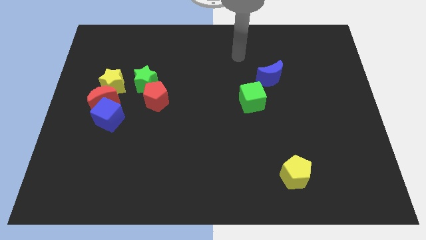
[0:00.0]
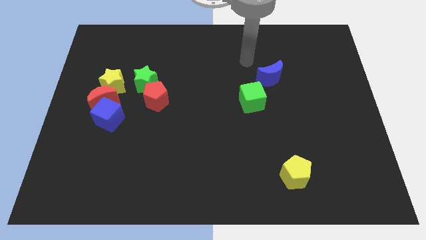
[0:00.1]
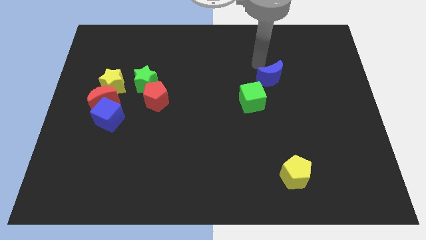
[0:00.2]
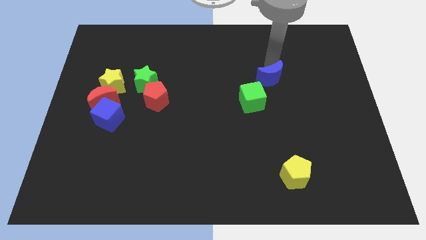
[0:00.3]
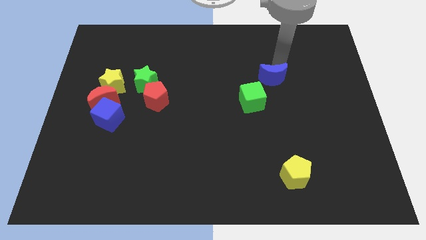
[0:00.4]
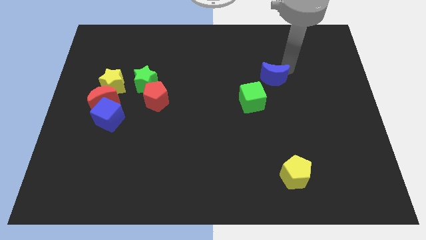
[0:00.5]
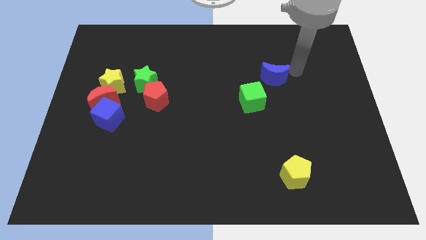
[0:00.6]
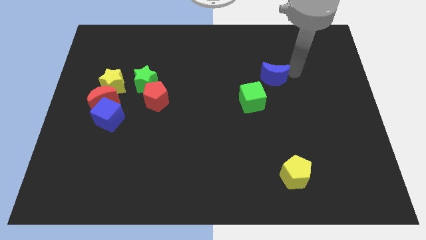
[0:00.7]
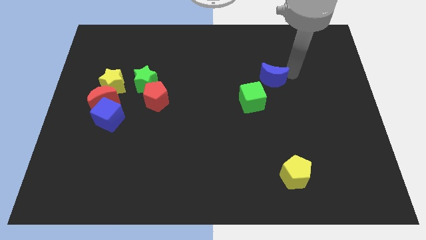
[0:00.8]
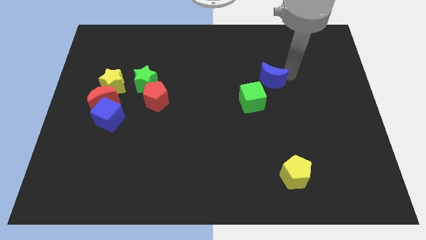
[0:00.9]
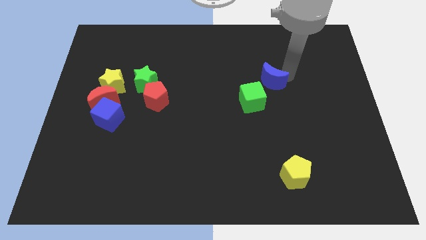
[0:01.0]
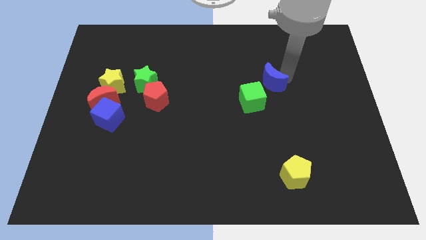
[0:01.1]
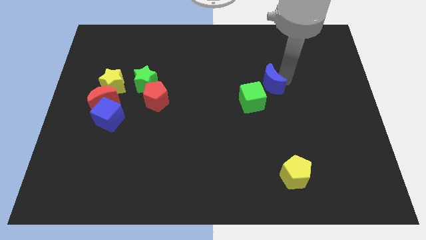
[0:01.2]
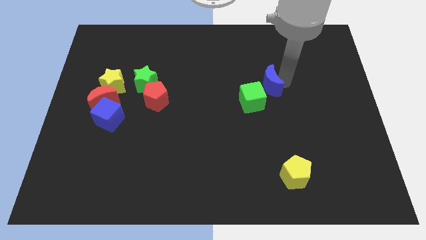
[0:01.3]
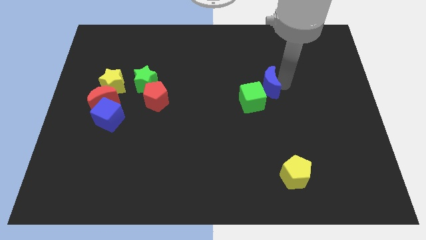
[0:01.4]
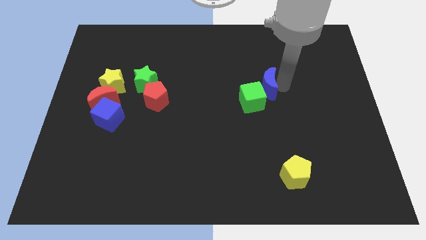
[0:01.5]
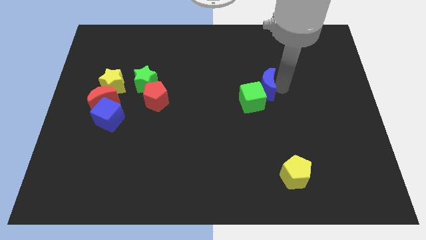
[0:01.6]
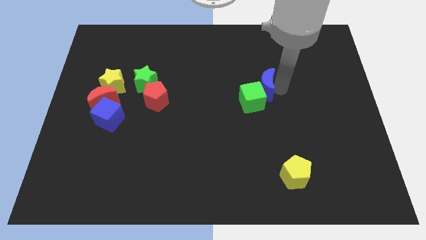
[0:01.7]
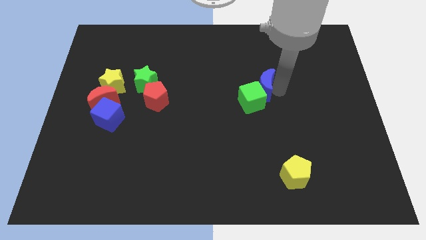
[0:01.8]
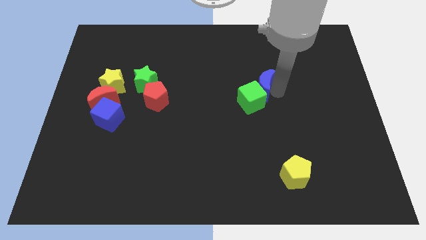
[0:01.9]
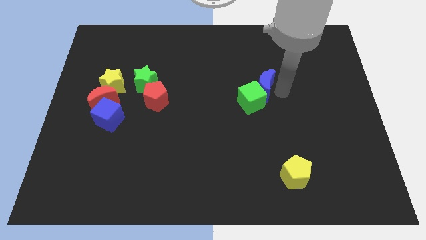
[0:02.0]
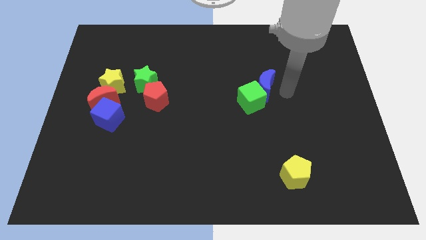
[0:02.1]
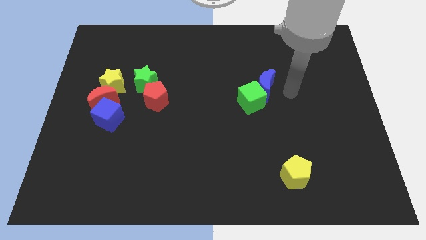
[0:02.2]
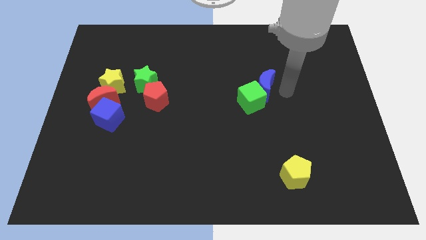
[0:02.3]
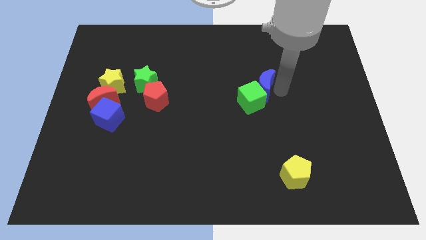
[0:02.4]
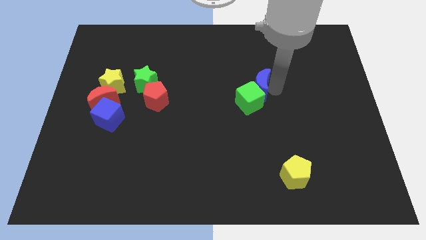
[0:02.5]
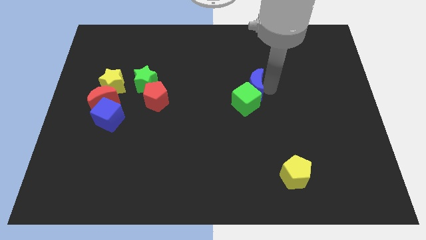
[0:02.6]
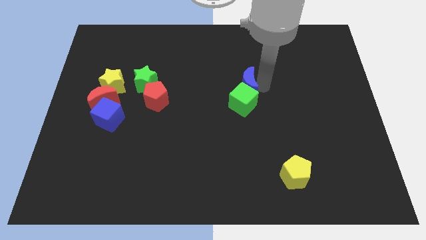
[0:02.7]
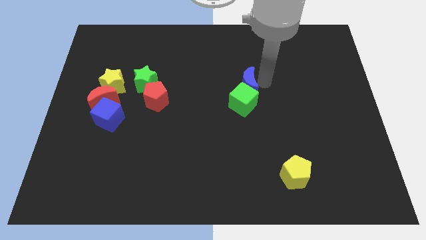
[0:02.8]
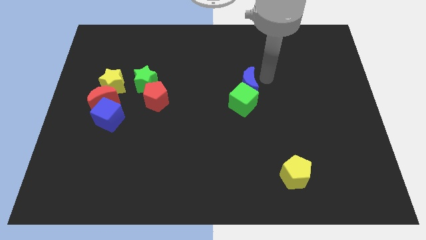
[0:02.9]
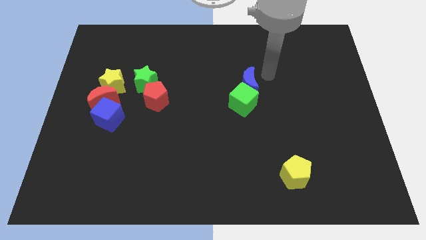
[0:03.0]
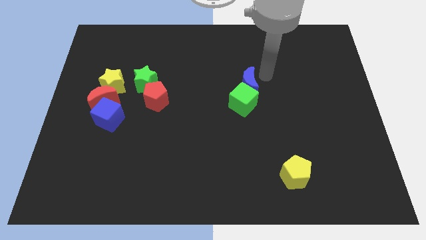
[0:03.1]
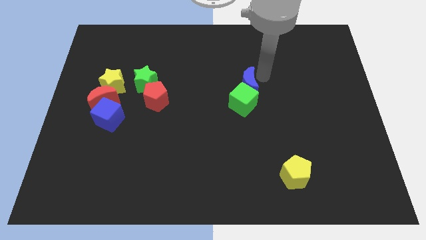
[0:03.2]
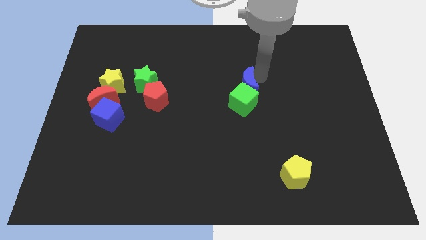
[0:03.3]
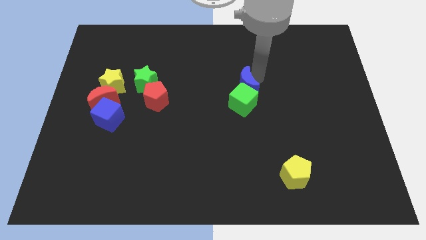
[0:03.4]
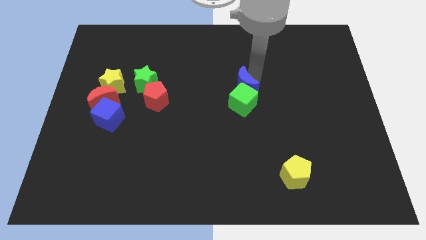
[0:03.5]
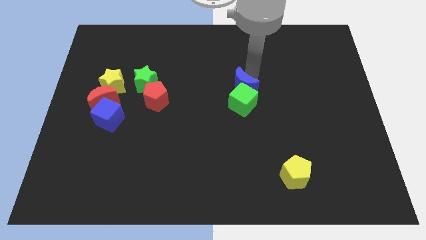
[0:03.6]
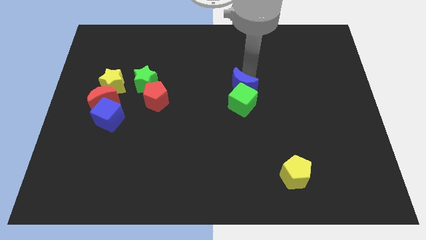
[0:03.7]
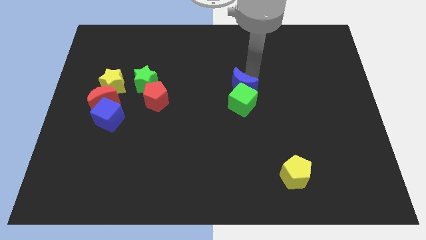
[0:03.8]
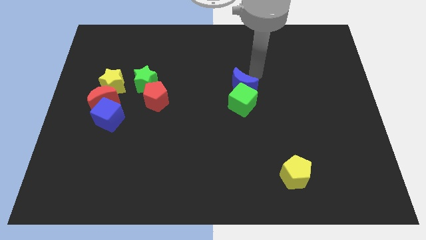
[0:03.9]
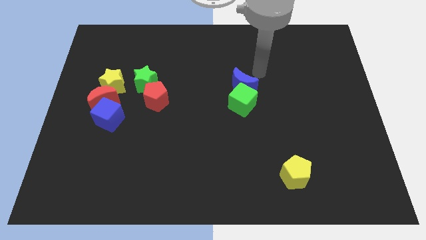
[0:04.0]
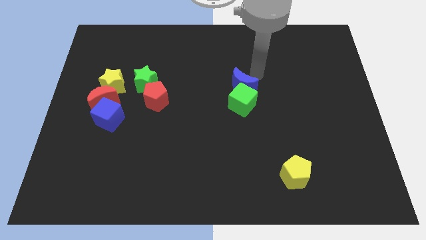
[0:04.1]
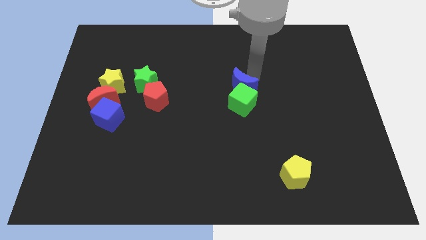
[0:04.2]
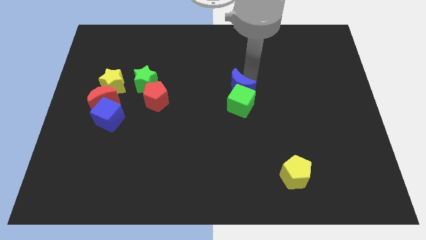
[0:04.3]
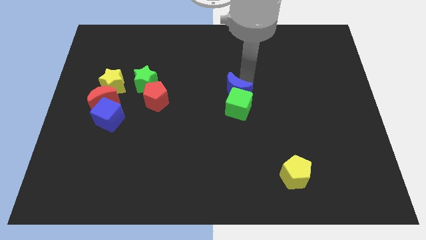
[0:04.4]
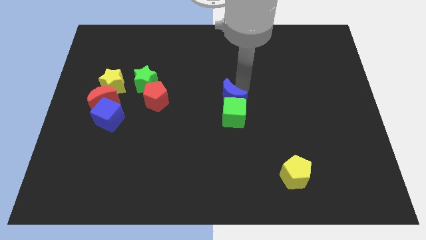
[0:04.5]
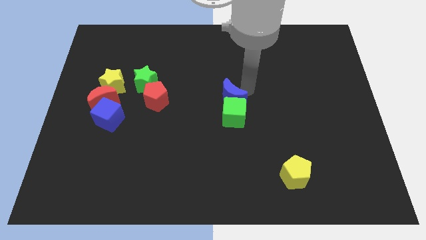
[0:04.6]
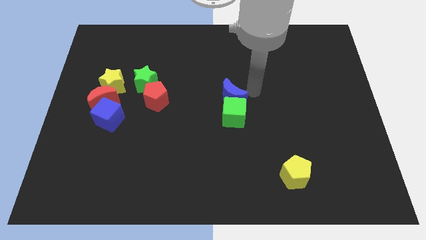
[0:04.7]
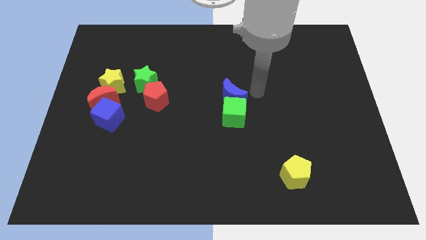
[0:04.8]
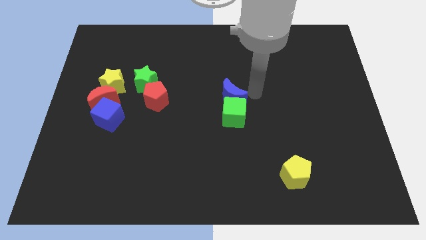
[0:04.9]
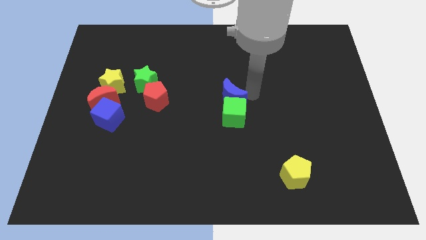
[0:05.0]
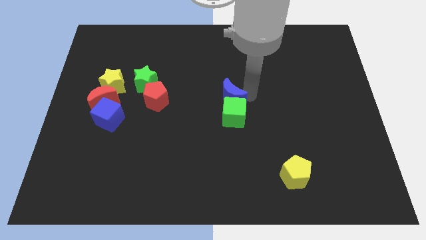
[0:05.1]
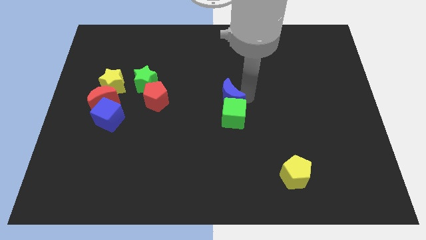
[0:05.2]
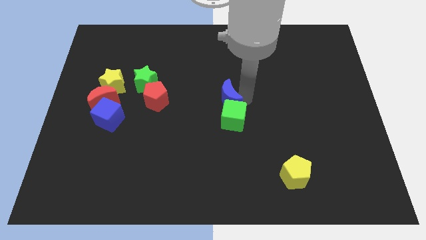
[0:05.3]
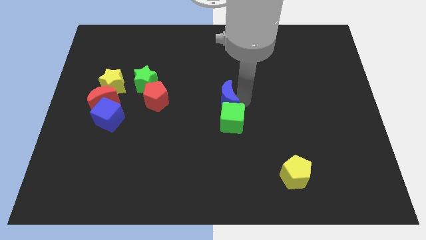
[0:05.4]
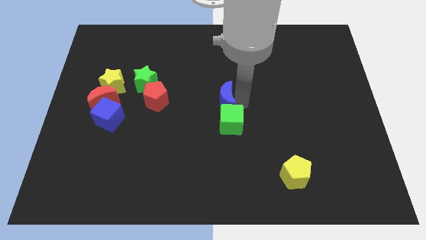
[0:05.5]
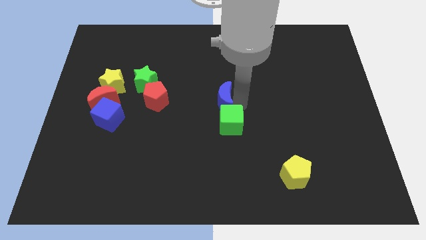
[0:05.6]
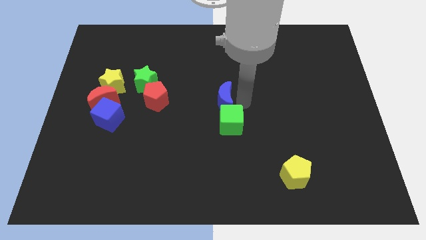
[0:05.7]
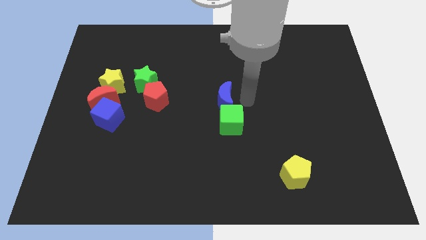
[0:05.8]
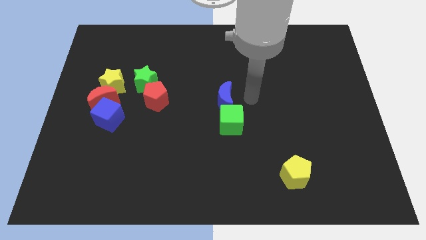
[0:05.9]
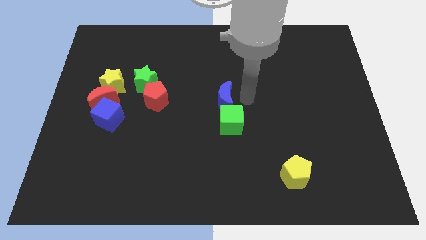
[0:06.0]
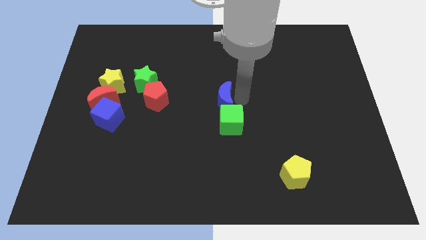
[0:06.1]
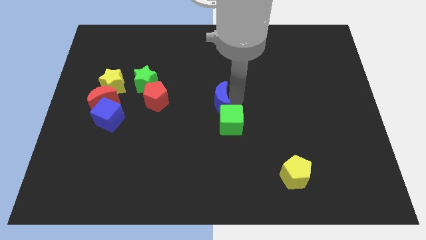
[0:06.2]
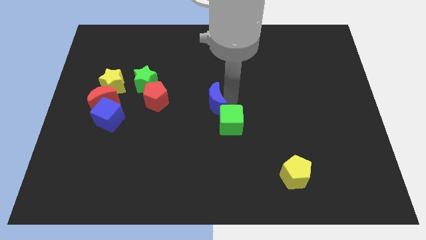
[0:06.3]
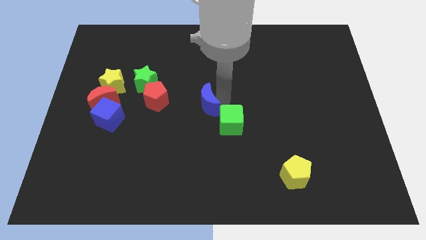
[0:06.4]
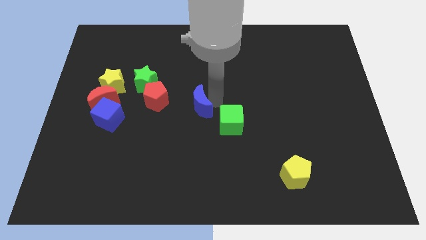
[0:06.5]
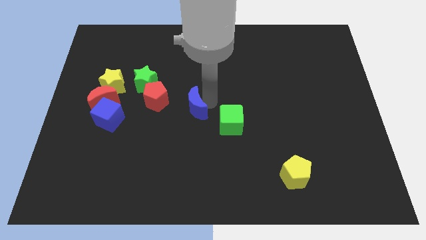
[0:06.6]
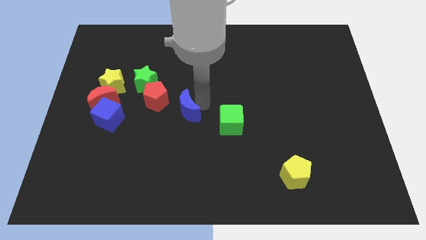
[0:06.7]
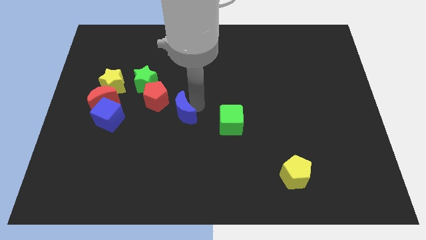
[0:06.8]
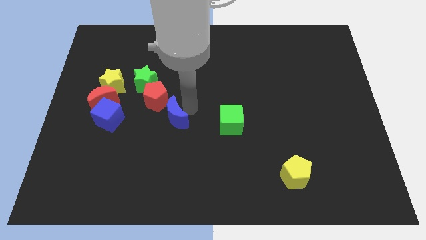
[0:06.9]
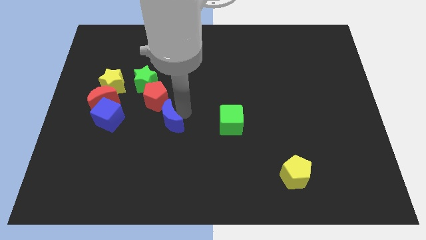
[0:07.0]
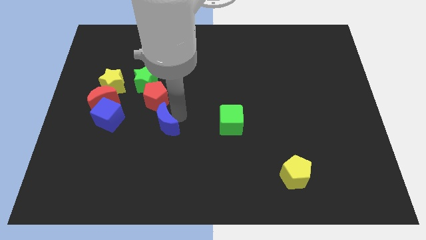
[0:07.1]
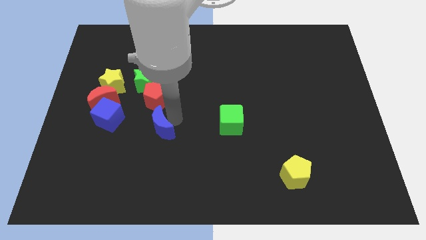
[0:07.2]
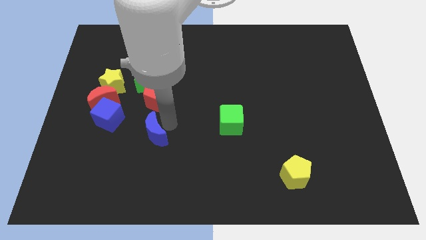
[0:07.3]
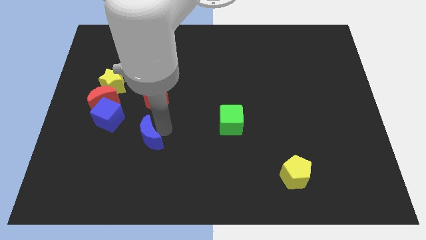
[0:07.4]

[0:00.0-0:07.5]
move the blue moon to the bottom right side of the blue cube
